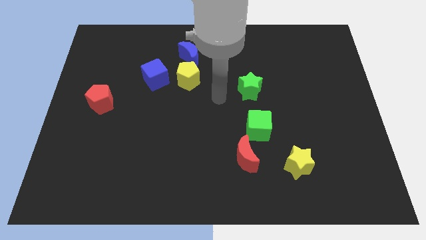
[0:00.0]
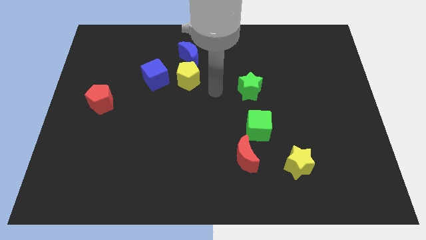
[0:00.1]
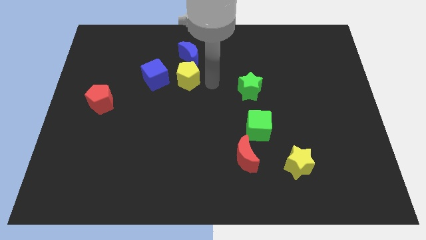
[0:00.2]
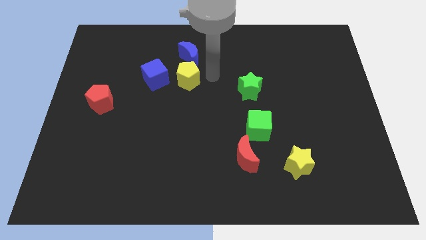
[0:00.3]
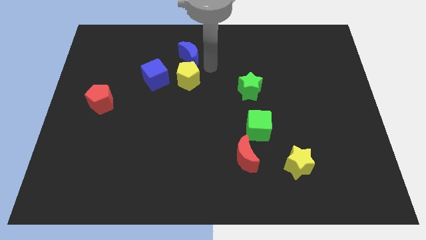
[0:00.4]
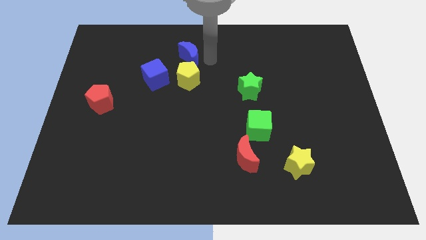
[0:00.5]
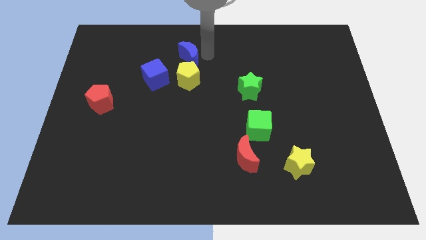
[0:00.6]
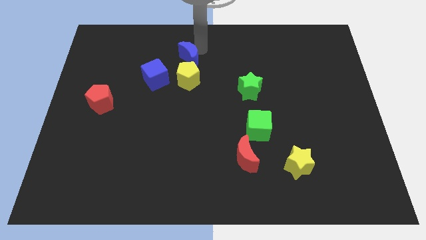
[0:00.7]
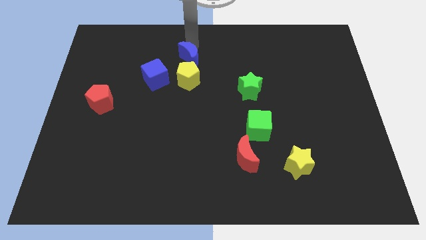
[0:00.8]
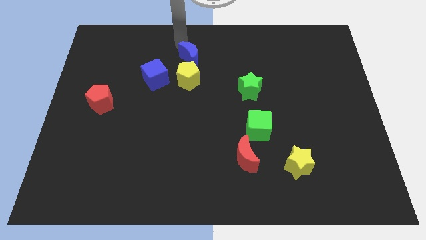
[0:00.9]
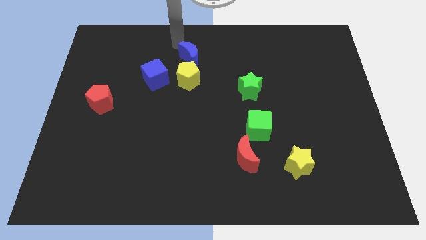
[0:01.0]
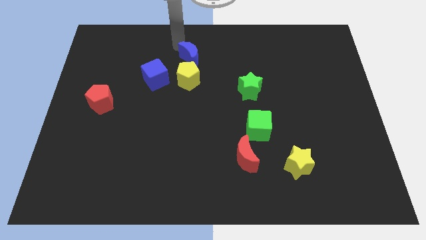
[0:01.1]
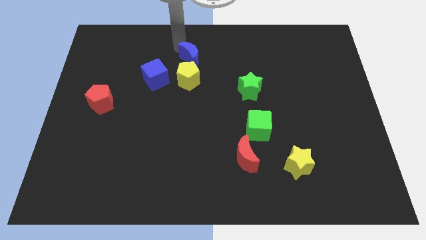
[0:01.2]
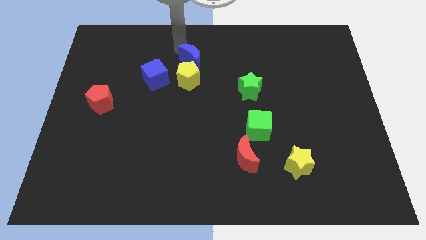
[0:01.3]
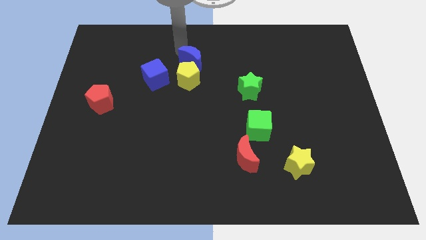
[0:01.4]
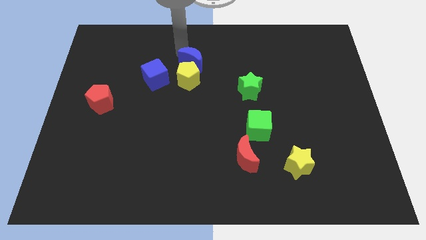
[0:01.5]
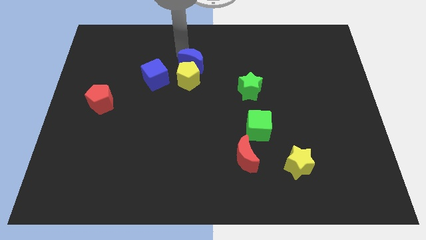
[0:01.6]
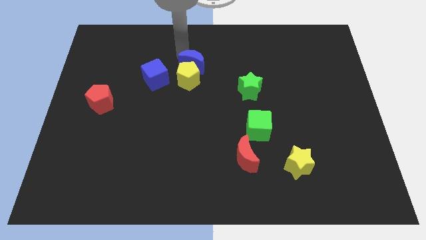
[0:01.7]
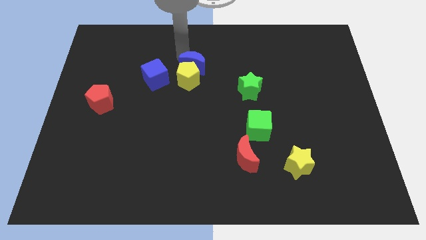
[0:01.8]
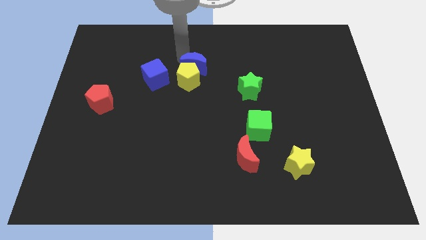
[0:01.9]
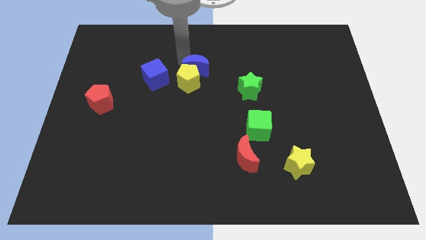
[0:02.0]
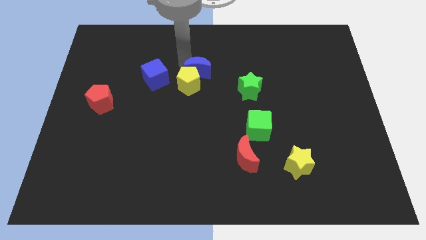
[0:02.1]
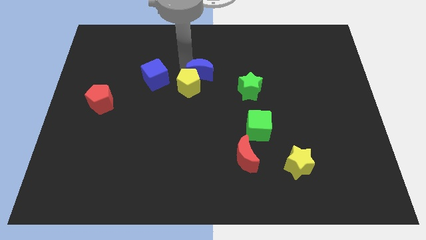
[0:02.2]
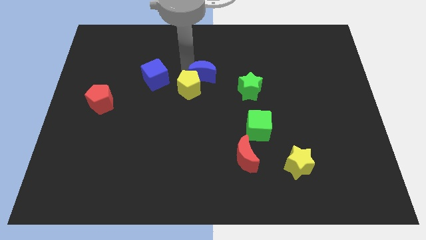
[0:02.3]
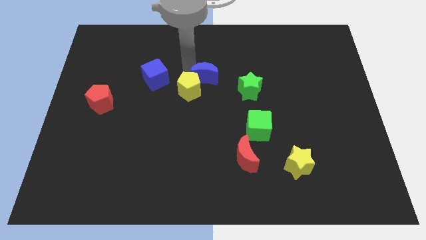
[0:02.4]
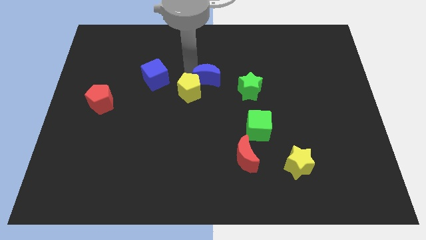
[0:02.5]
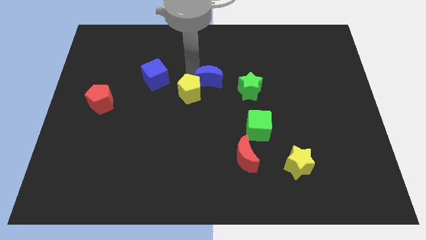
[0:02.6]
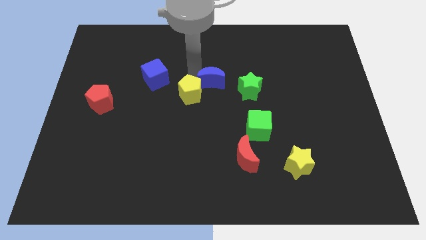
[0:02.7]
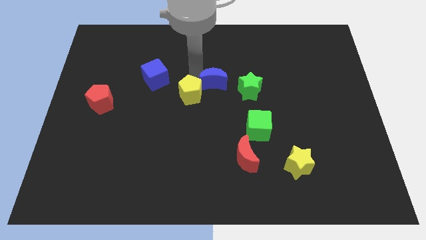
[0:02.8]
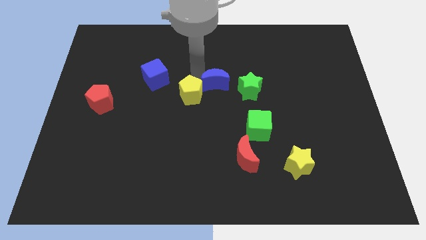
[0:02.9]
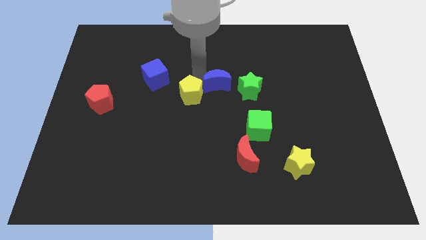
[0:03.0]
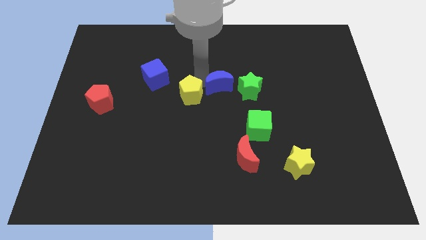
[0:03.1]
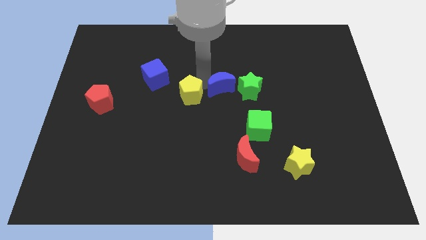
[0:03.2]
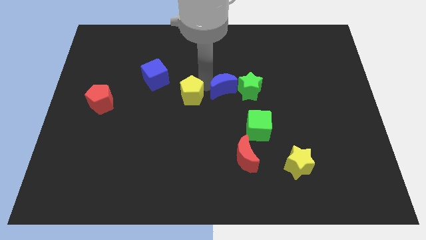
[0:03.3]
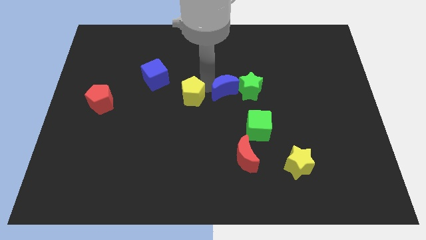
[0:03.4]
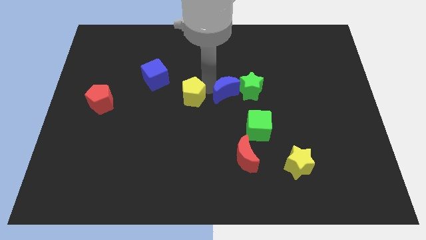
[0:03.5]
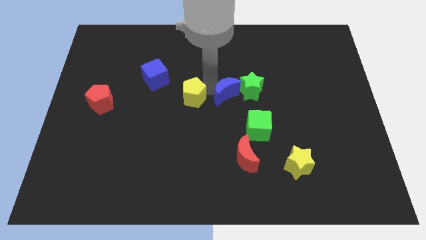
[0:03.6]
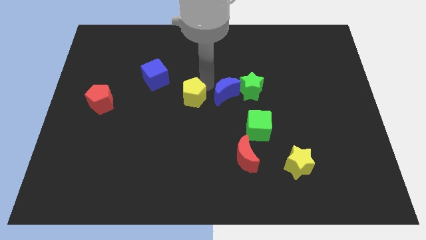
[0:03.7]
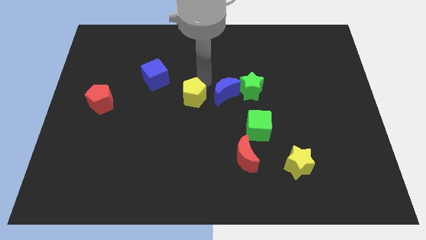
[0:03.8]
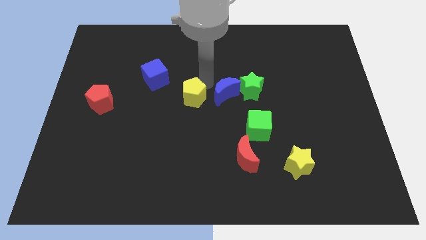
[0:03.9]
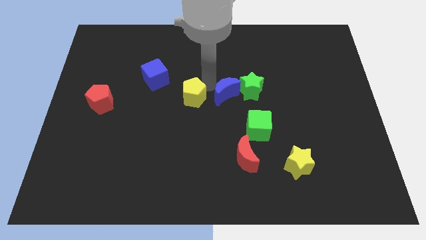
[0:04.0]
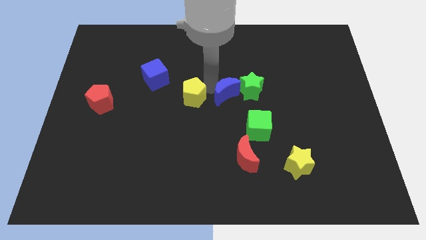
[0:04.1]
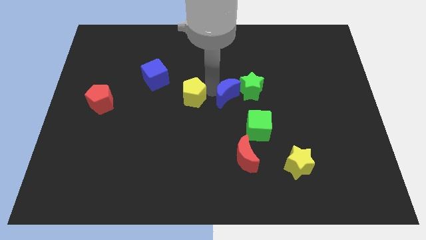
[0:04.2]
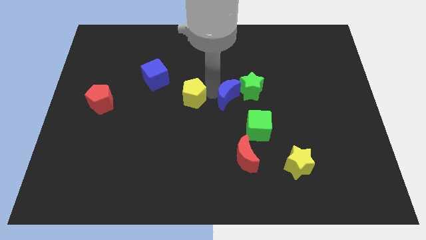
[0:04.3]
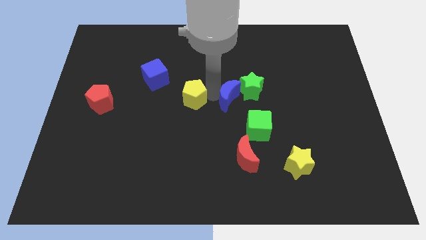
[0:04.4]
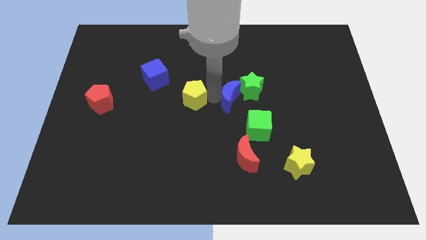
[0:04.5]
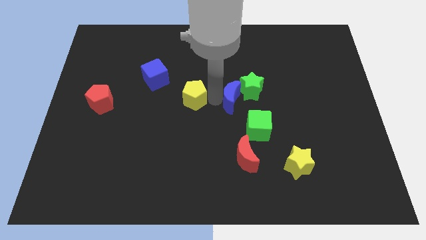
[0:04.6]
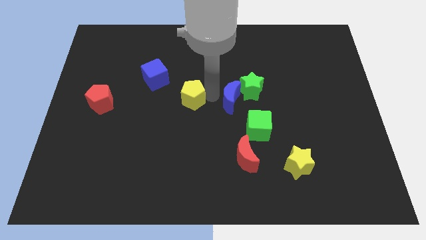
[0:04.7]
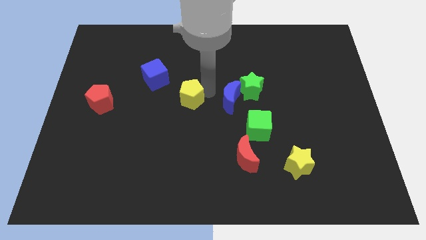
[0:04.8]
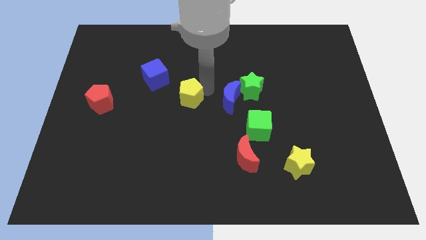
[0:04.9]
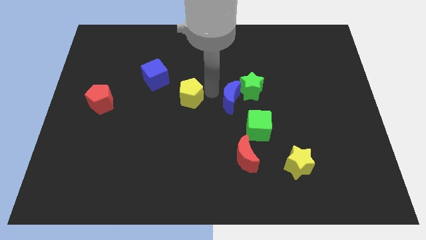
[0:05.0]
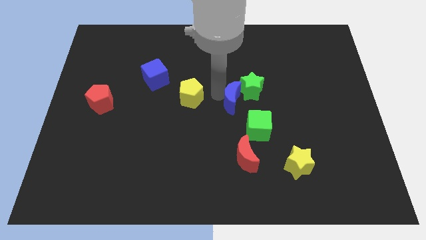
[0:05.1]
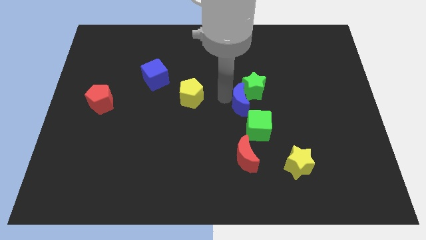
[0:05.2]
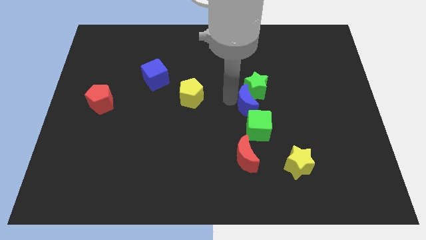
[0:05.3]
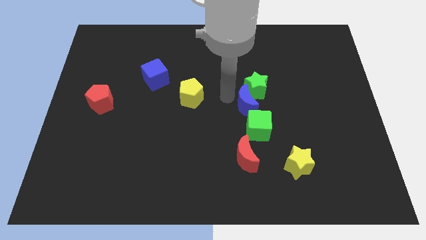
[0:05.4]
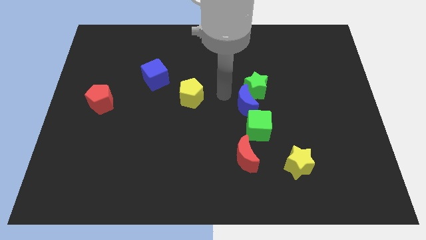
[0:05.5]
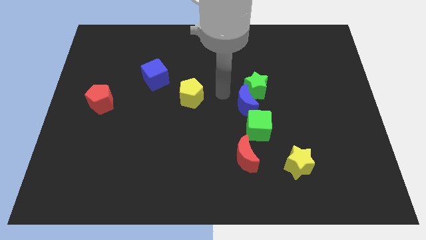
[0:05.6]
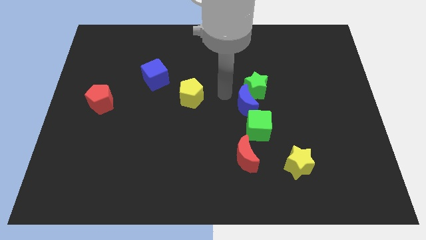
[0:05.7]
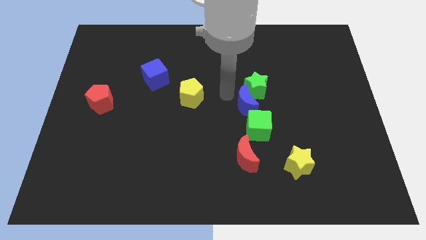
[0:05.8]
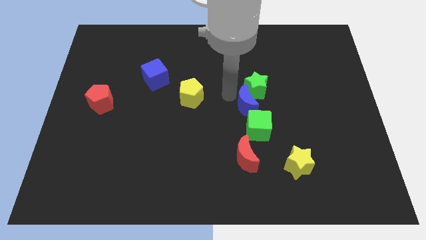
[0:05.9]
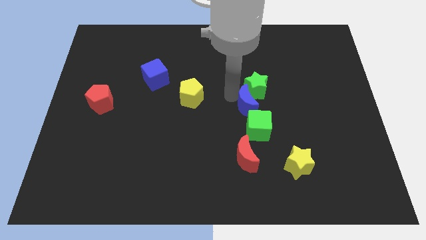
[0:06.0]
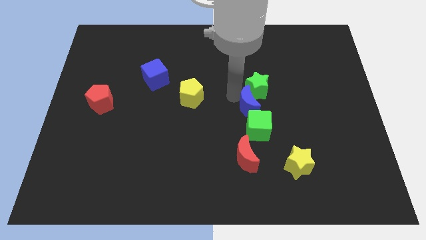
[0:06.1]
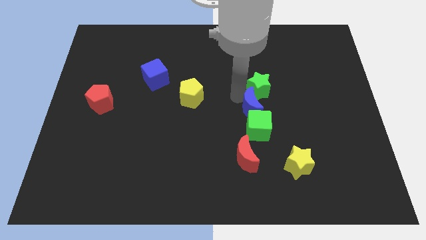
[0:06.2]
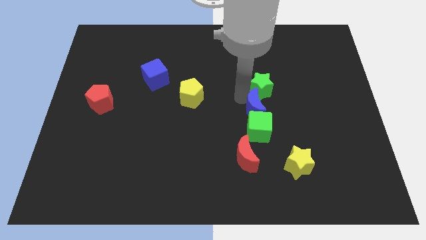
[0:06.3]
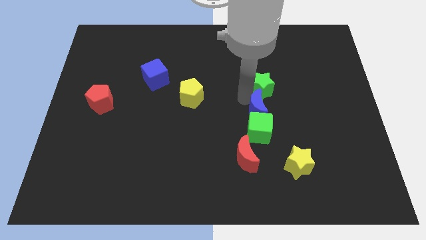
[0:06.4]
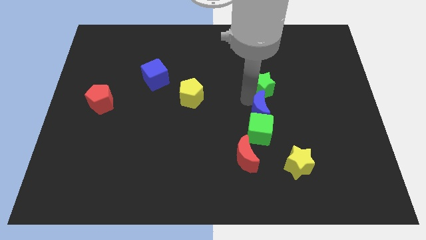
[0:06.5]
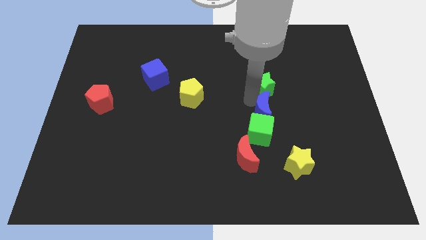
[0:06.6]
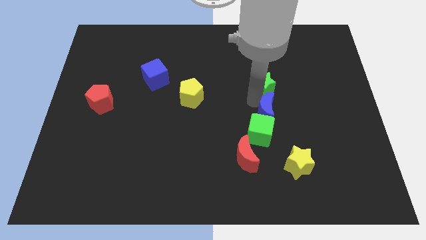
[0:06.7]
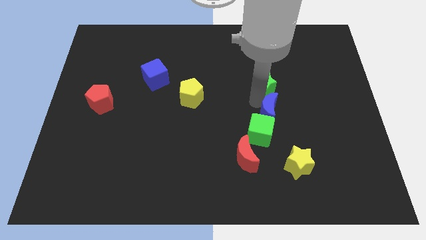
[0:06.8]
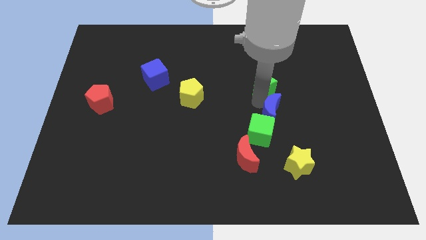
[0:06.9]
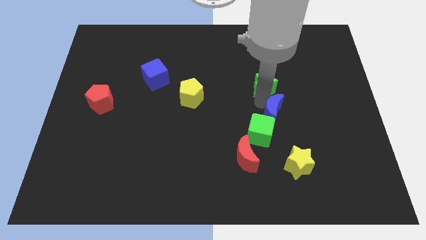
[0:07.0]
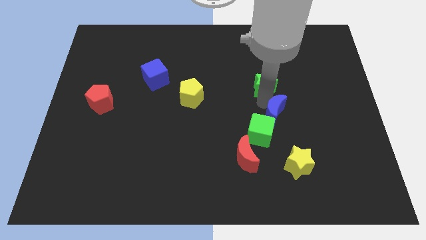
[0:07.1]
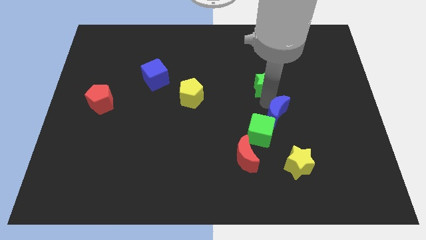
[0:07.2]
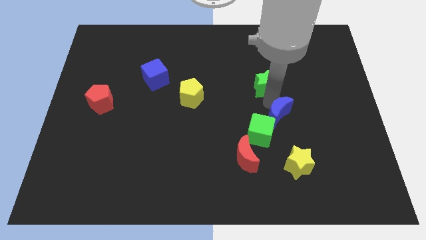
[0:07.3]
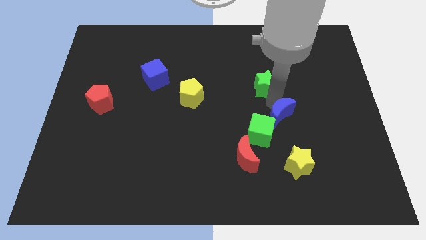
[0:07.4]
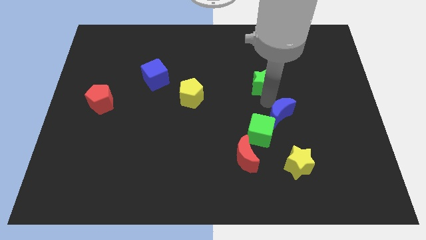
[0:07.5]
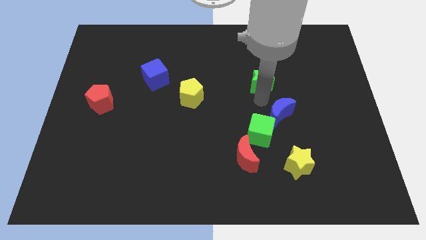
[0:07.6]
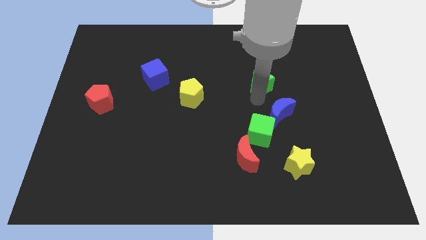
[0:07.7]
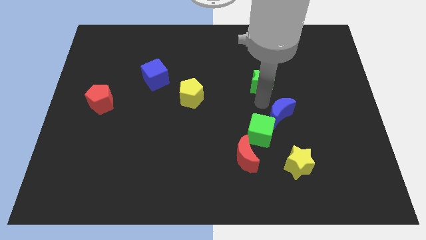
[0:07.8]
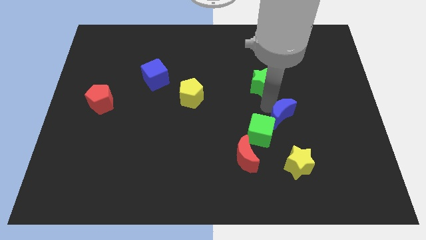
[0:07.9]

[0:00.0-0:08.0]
put the blue moon just right of the green cube
